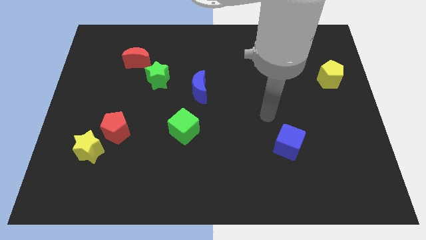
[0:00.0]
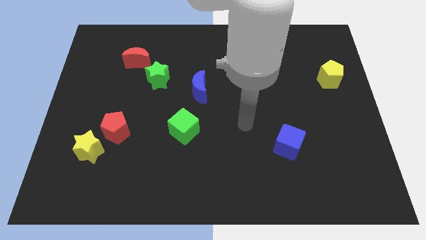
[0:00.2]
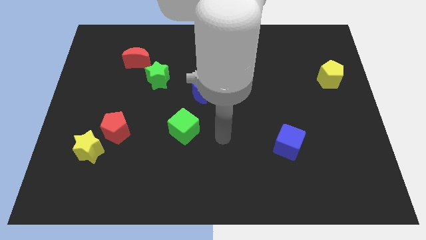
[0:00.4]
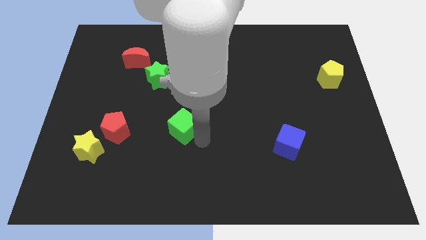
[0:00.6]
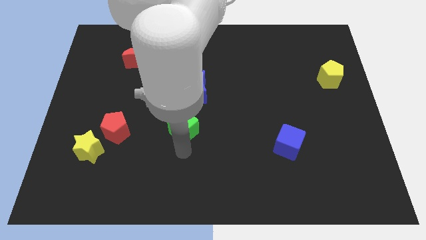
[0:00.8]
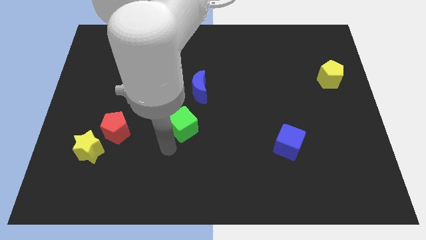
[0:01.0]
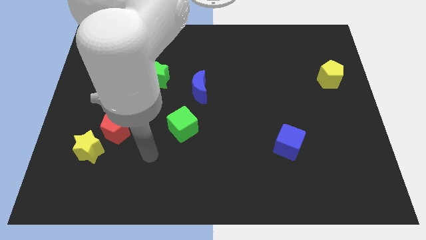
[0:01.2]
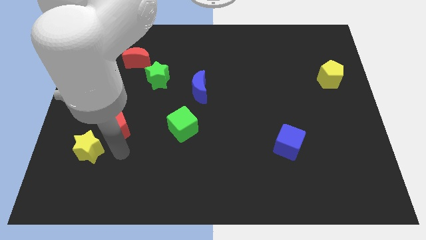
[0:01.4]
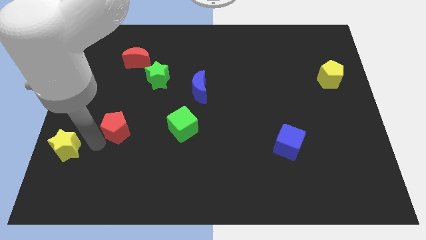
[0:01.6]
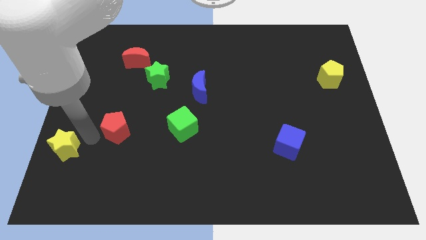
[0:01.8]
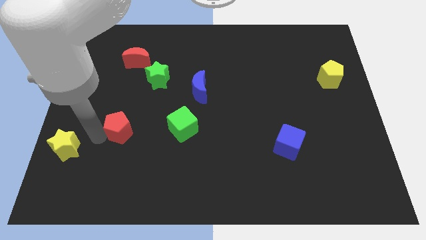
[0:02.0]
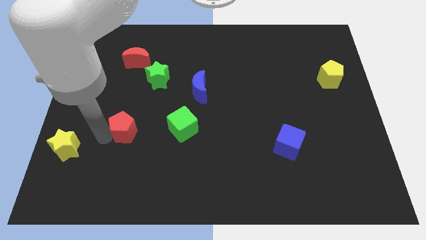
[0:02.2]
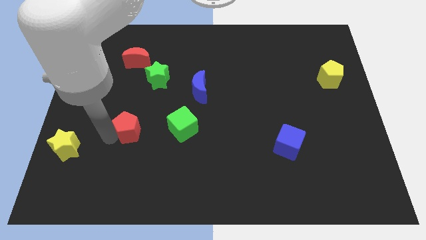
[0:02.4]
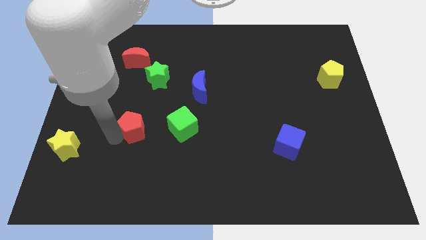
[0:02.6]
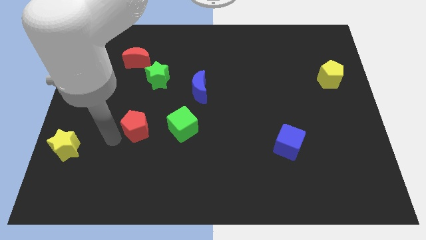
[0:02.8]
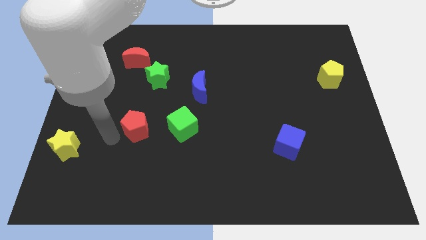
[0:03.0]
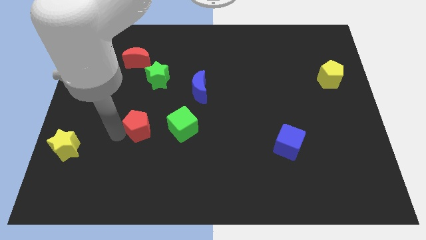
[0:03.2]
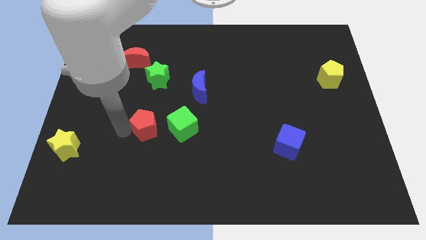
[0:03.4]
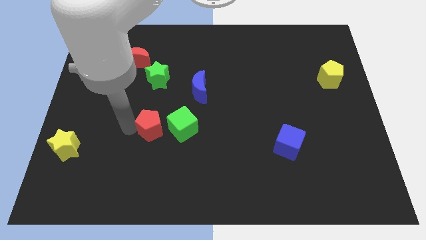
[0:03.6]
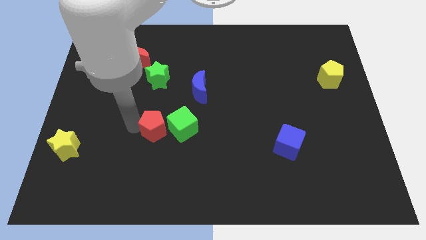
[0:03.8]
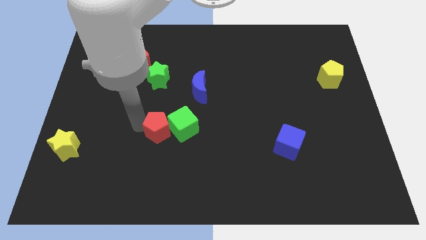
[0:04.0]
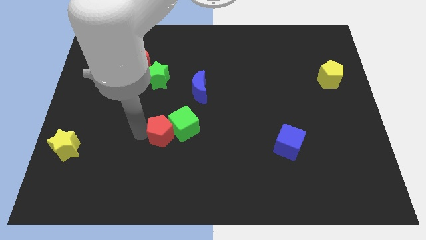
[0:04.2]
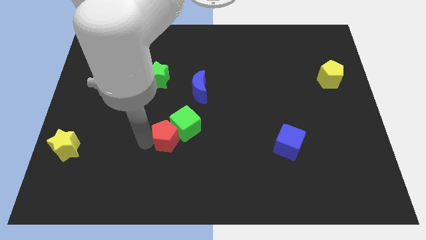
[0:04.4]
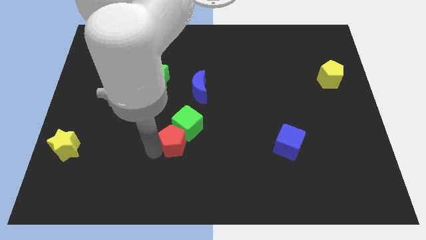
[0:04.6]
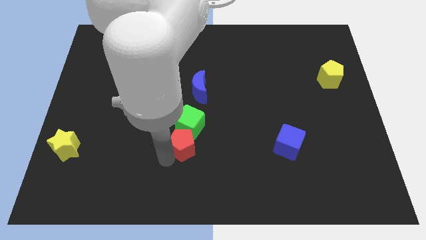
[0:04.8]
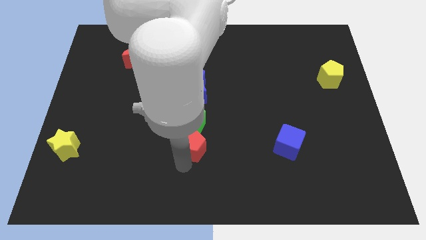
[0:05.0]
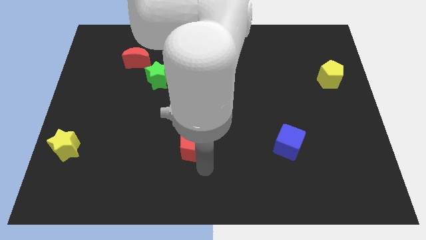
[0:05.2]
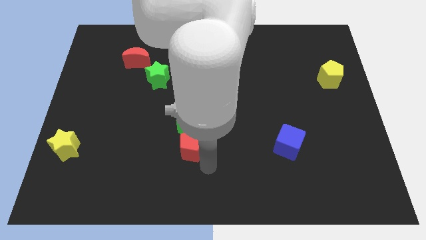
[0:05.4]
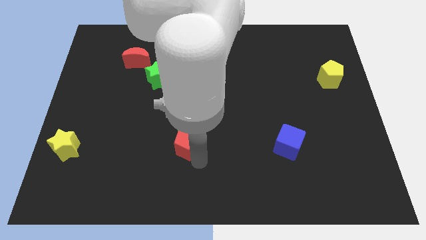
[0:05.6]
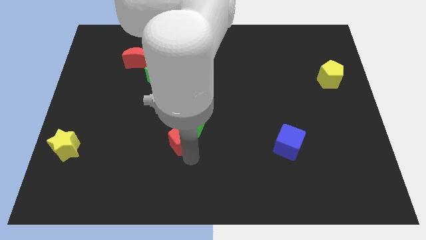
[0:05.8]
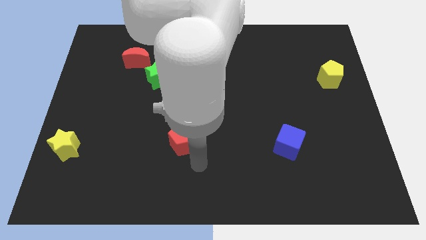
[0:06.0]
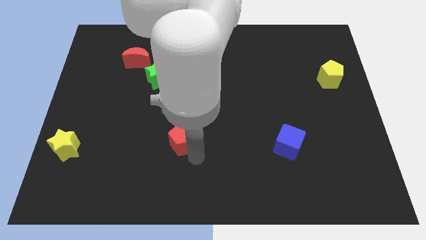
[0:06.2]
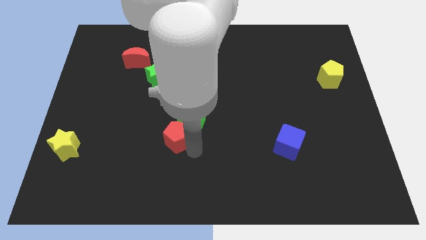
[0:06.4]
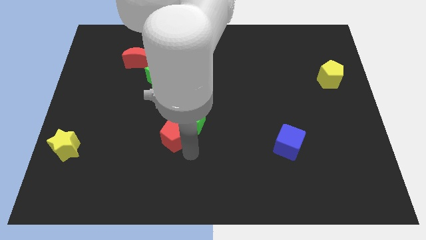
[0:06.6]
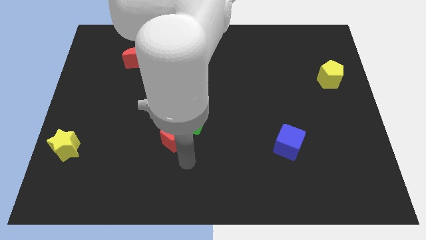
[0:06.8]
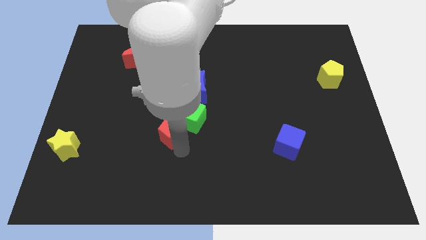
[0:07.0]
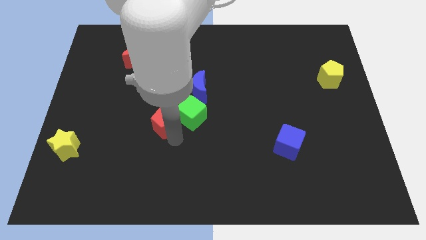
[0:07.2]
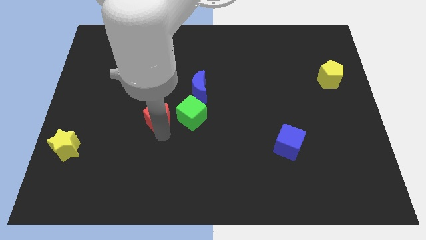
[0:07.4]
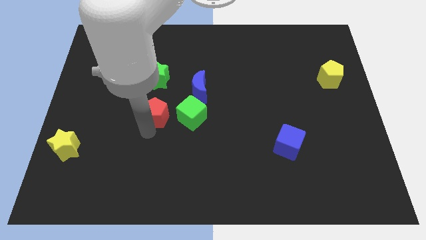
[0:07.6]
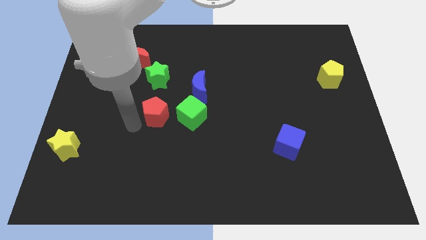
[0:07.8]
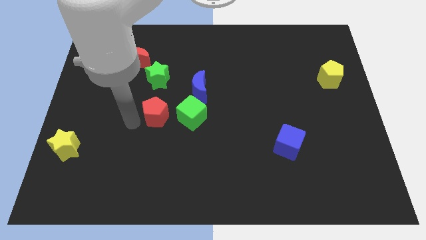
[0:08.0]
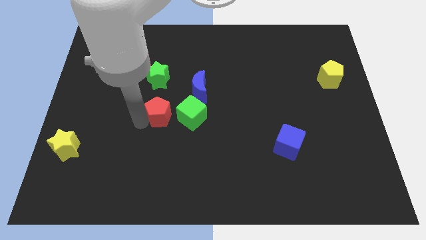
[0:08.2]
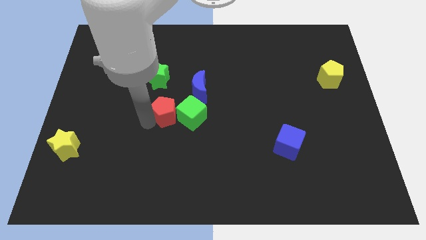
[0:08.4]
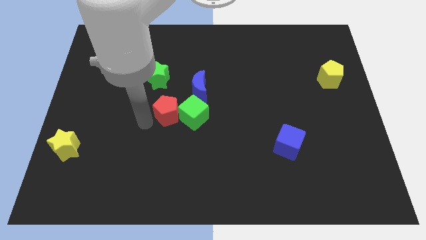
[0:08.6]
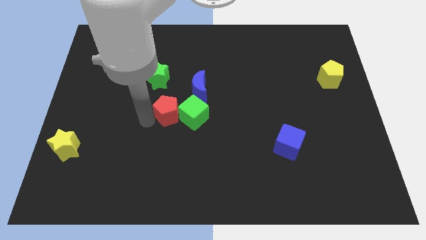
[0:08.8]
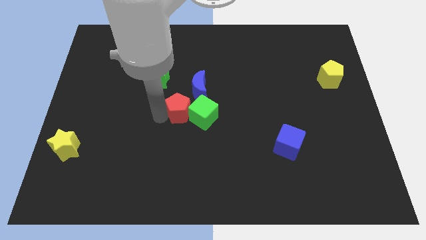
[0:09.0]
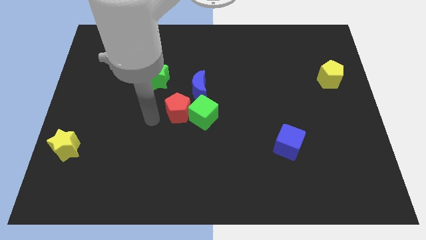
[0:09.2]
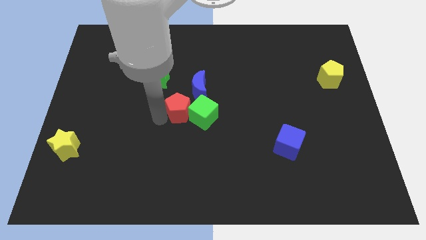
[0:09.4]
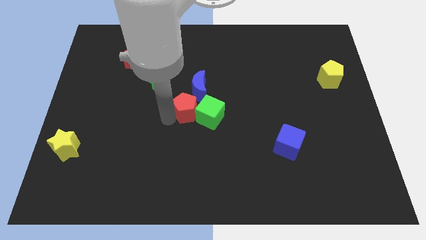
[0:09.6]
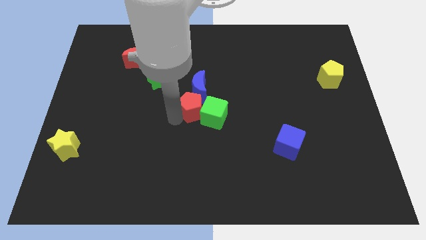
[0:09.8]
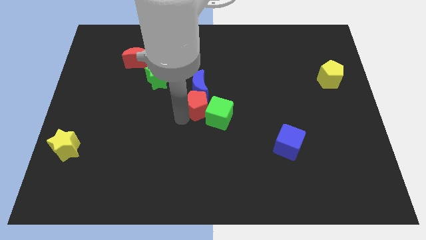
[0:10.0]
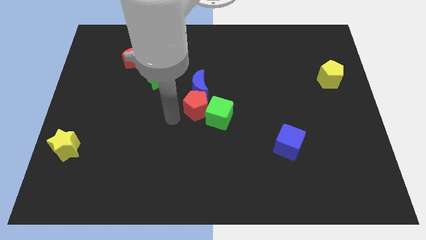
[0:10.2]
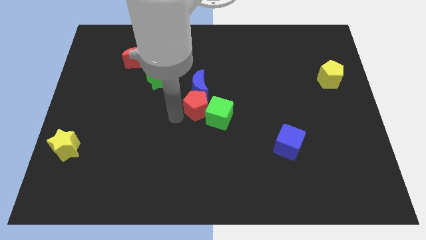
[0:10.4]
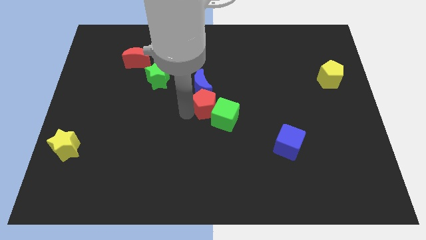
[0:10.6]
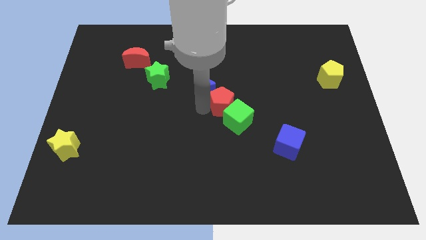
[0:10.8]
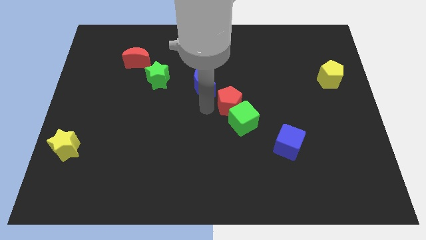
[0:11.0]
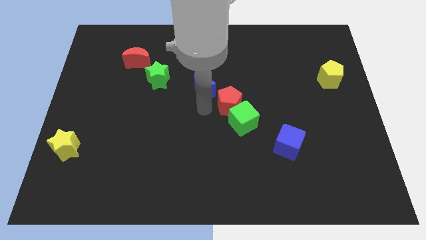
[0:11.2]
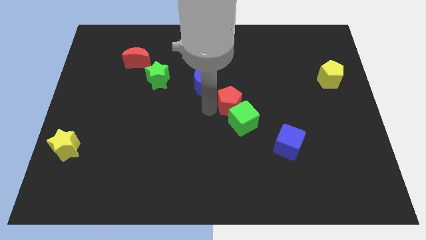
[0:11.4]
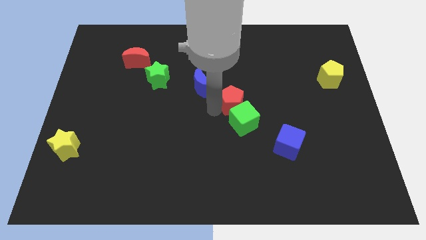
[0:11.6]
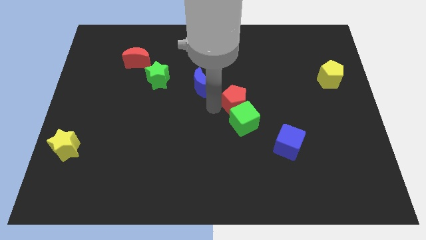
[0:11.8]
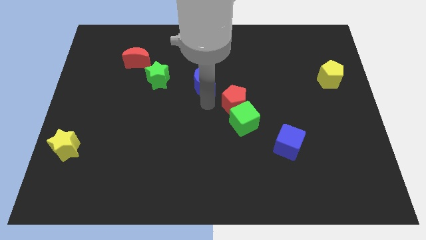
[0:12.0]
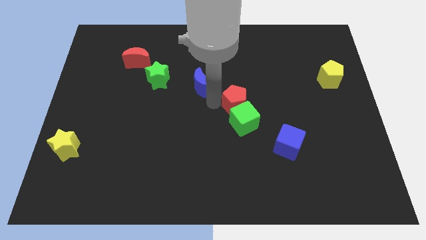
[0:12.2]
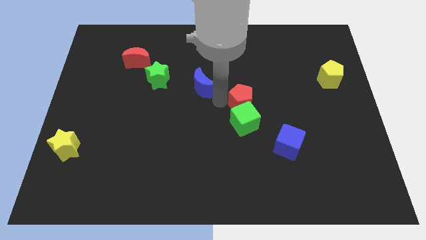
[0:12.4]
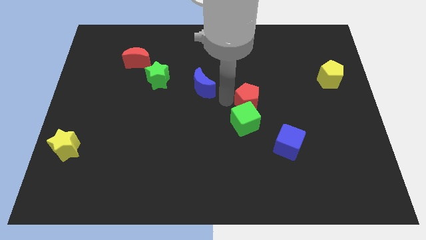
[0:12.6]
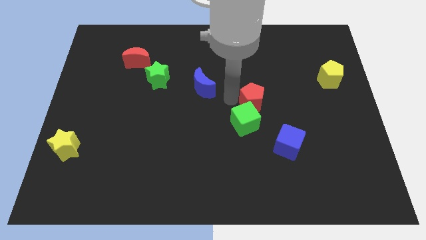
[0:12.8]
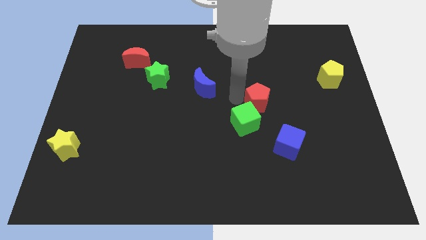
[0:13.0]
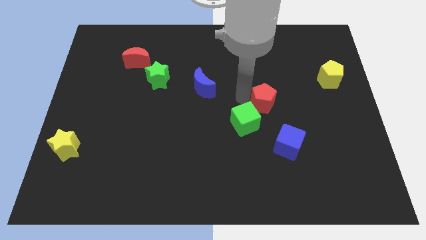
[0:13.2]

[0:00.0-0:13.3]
push the red pentagon to the top of the blue cube
